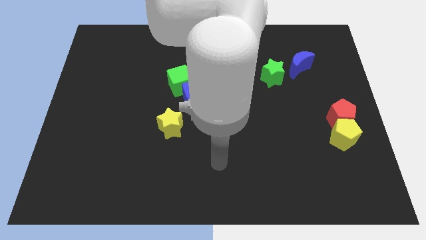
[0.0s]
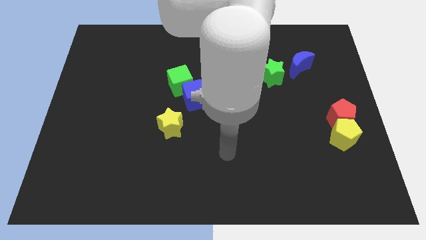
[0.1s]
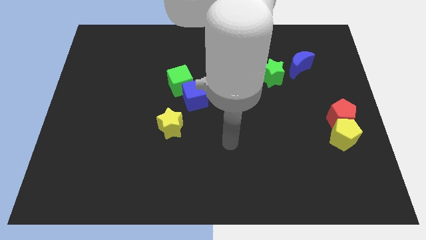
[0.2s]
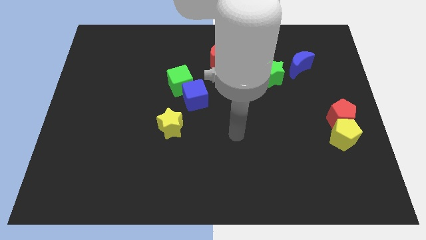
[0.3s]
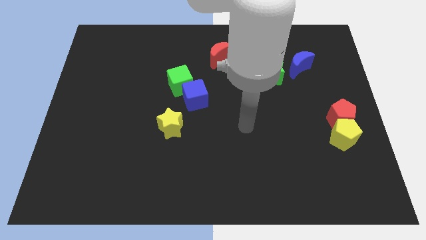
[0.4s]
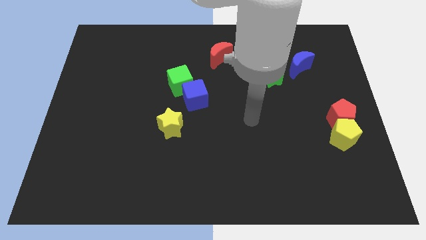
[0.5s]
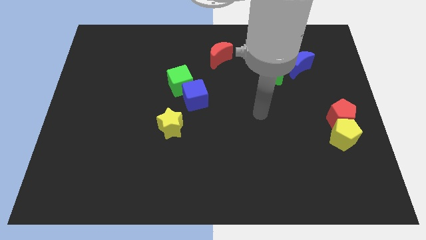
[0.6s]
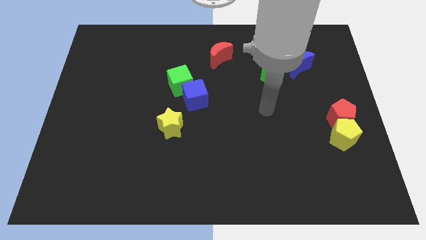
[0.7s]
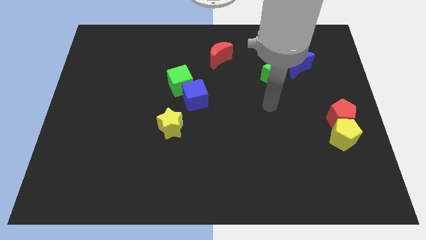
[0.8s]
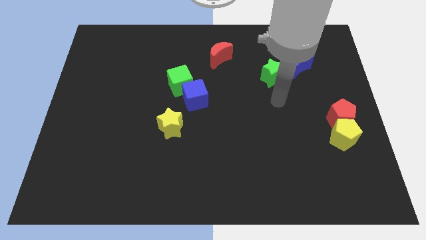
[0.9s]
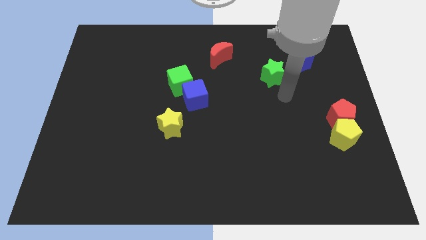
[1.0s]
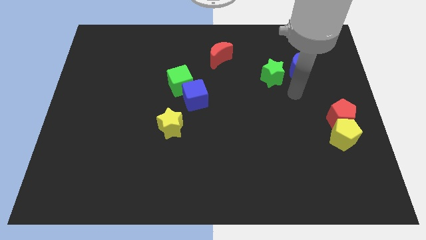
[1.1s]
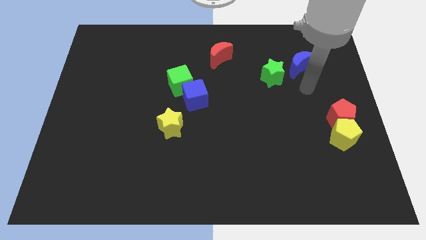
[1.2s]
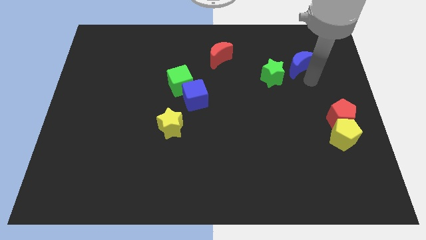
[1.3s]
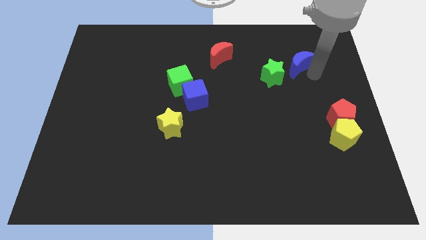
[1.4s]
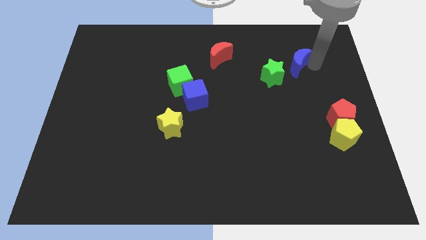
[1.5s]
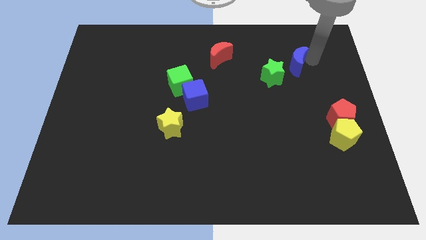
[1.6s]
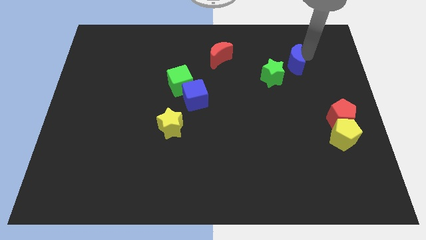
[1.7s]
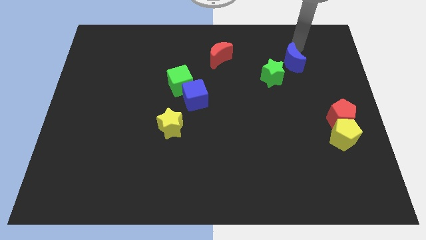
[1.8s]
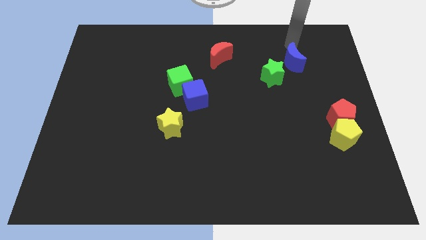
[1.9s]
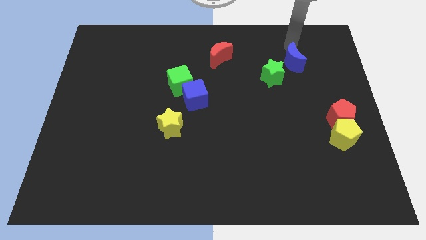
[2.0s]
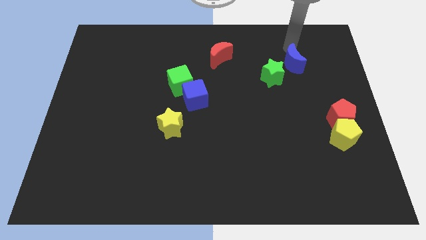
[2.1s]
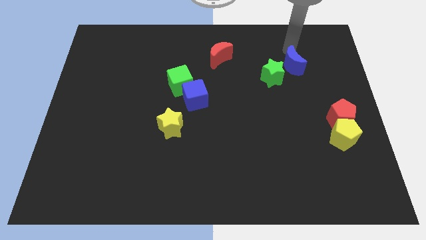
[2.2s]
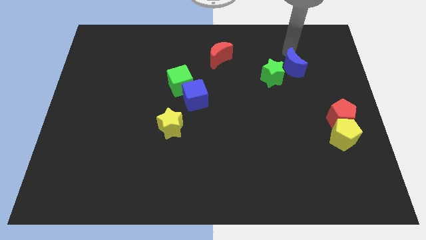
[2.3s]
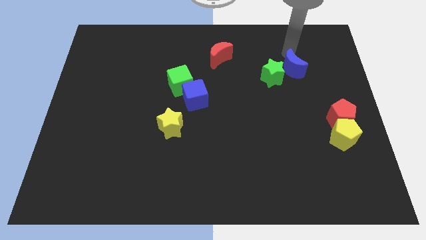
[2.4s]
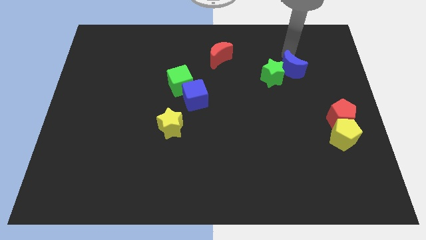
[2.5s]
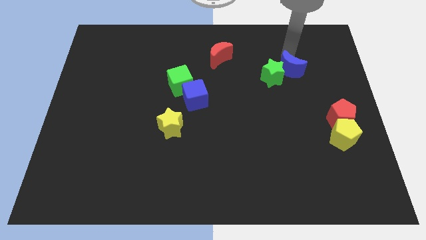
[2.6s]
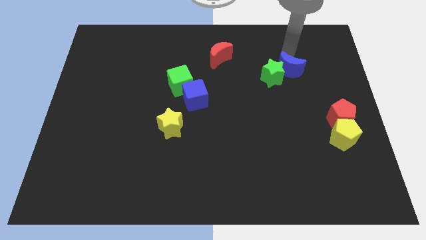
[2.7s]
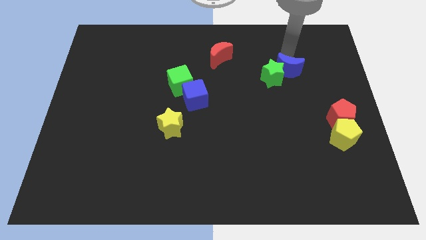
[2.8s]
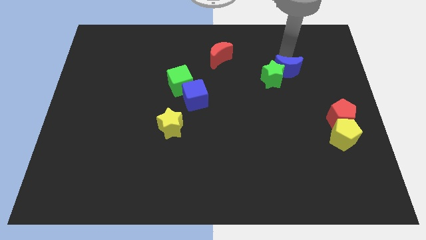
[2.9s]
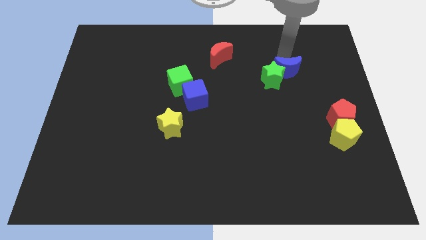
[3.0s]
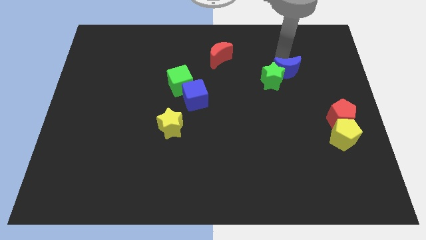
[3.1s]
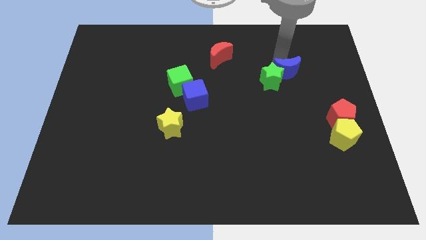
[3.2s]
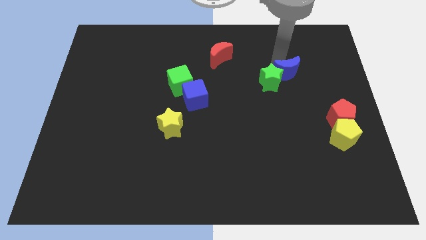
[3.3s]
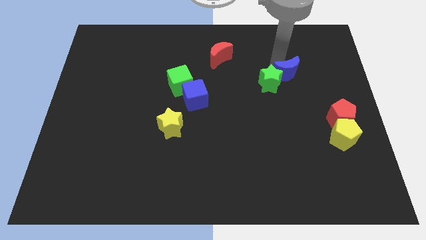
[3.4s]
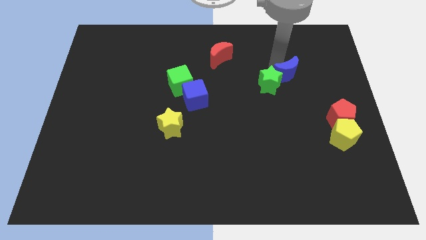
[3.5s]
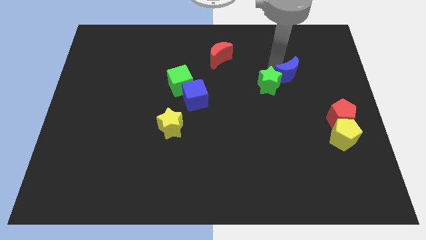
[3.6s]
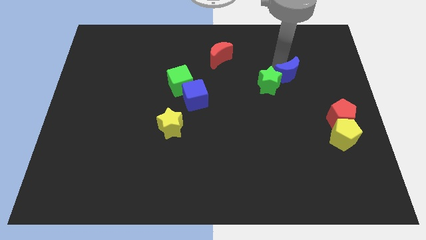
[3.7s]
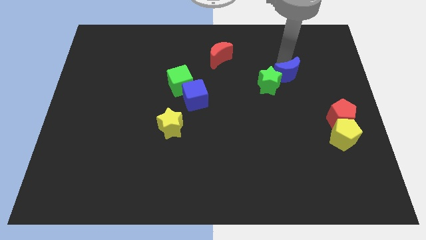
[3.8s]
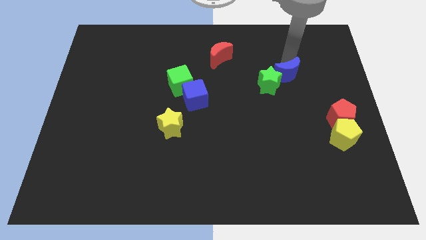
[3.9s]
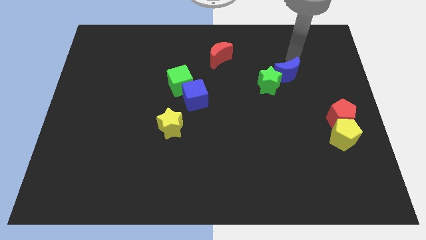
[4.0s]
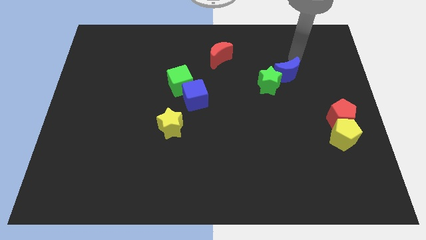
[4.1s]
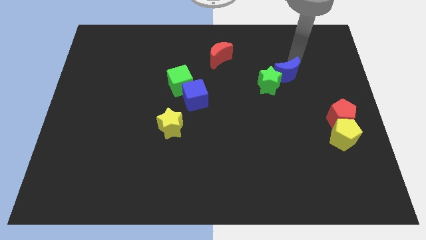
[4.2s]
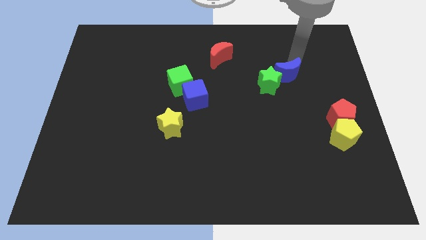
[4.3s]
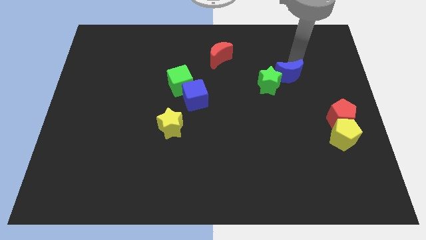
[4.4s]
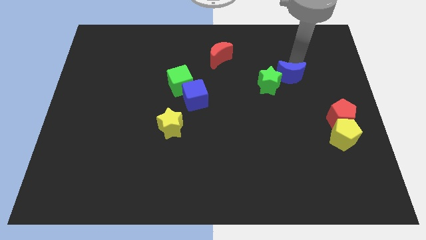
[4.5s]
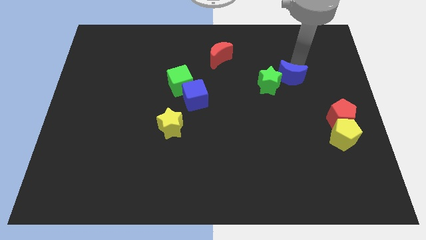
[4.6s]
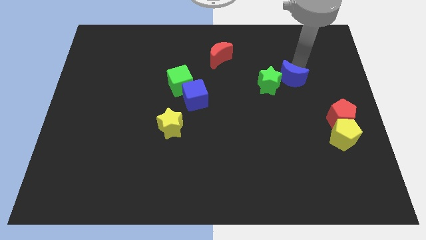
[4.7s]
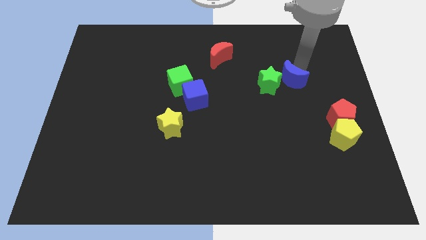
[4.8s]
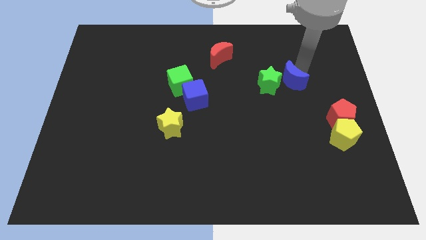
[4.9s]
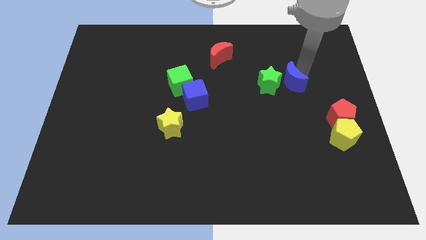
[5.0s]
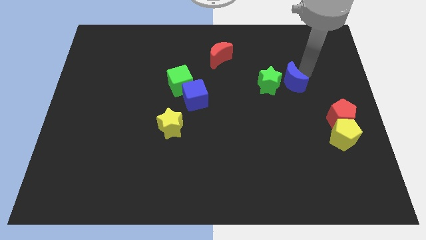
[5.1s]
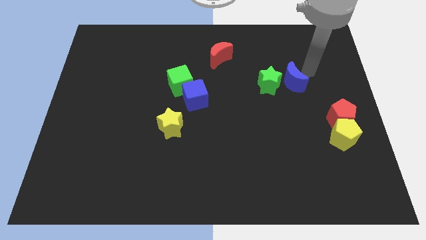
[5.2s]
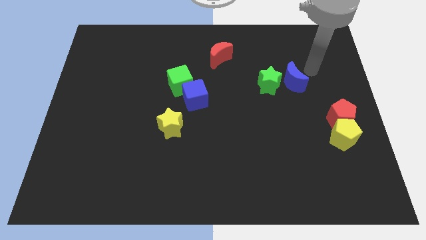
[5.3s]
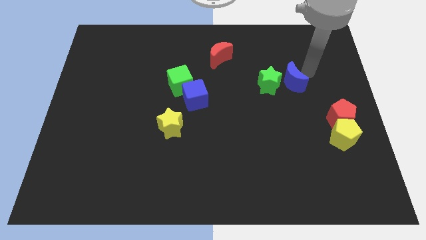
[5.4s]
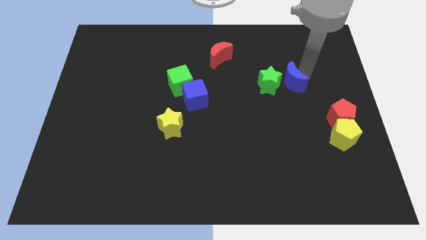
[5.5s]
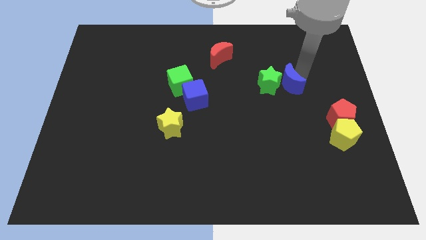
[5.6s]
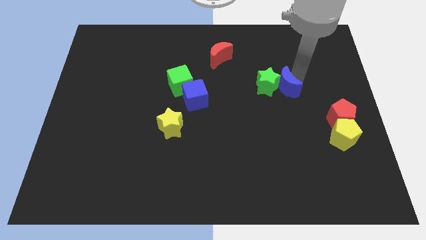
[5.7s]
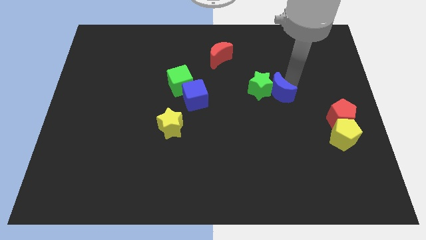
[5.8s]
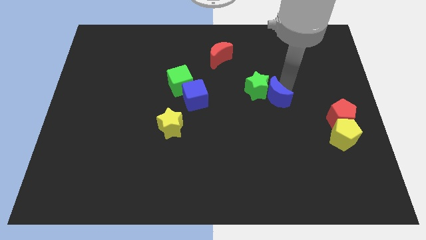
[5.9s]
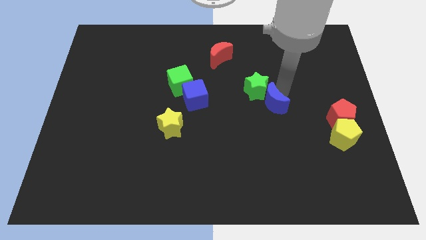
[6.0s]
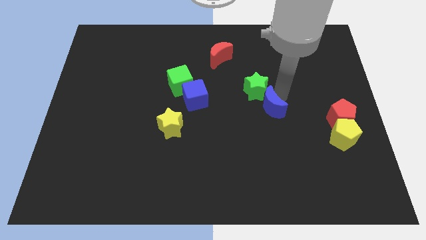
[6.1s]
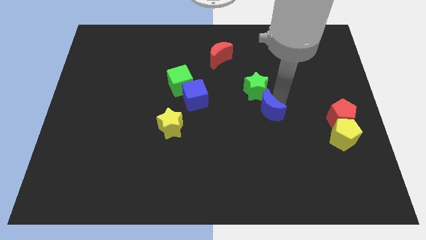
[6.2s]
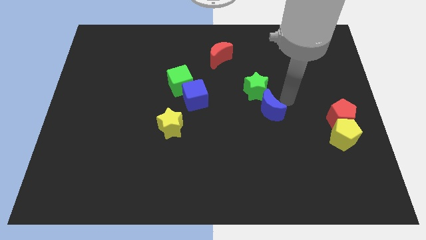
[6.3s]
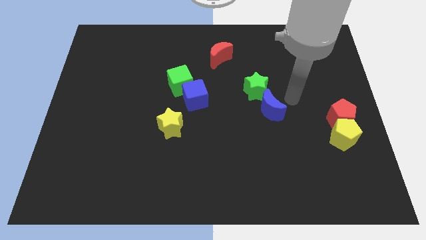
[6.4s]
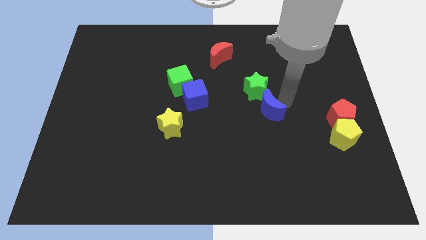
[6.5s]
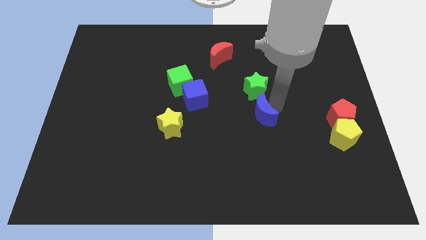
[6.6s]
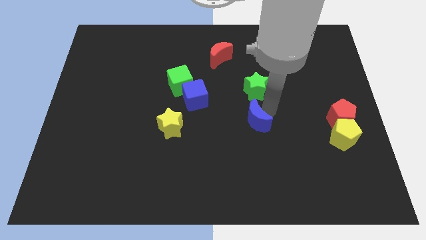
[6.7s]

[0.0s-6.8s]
move the blue moon down and then left

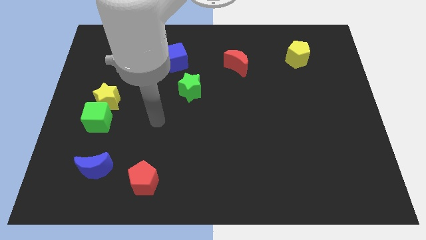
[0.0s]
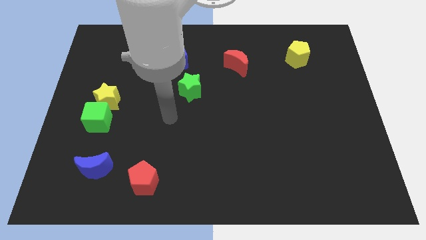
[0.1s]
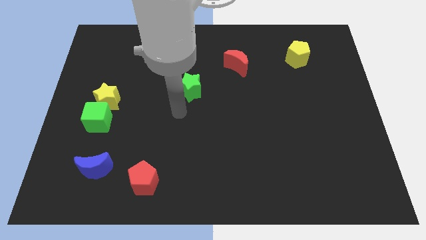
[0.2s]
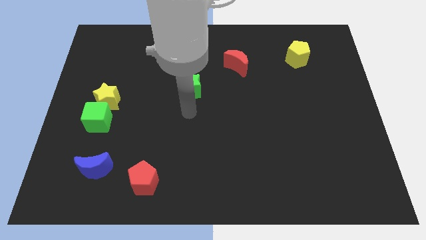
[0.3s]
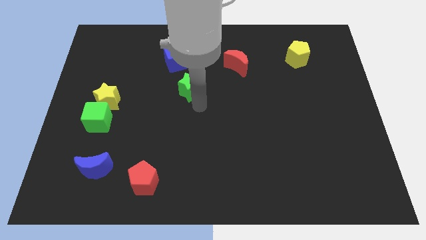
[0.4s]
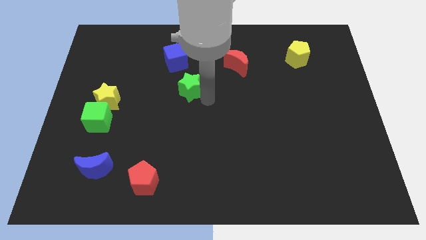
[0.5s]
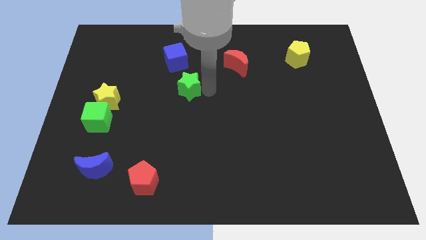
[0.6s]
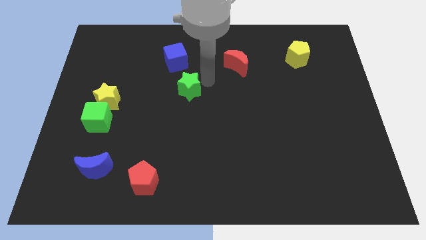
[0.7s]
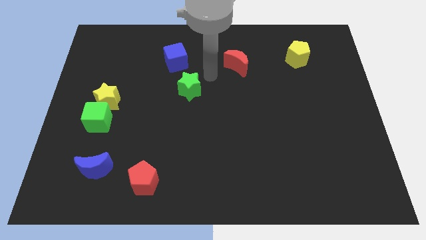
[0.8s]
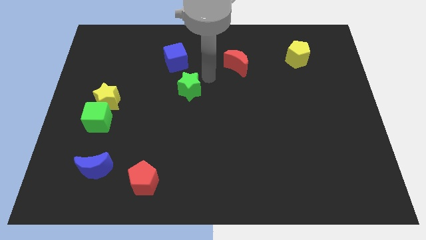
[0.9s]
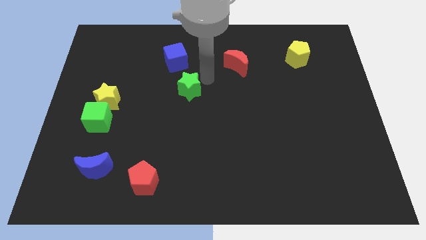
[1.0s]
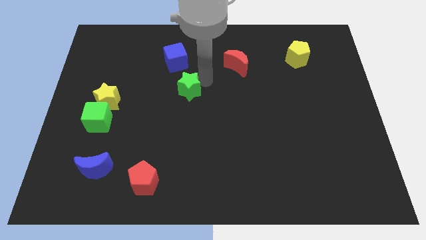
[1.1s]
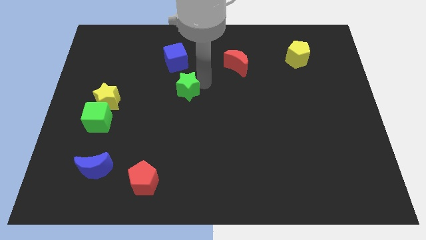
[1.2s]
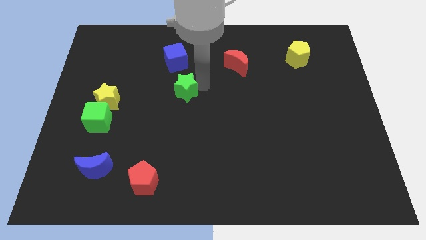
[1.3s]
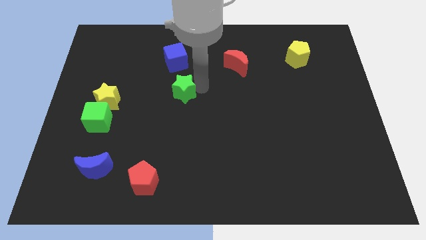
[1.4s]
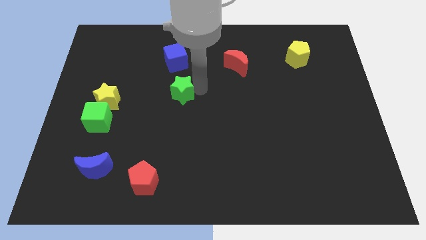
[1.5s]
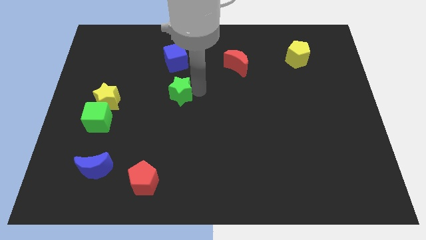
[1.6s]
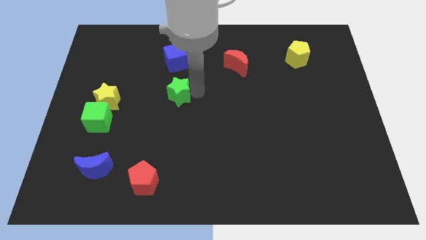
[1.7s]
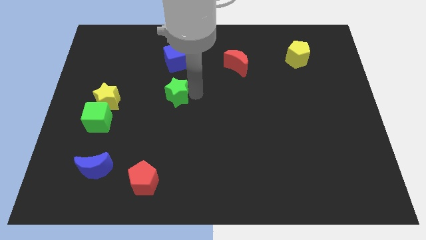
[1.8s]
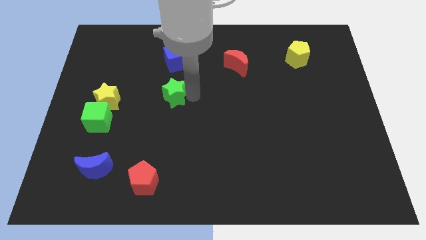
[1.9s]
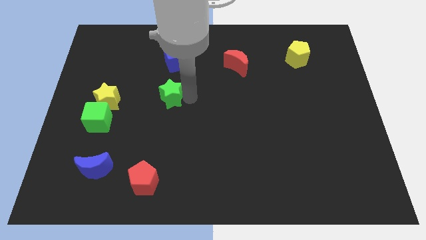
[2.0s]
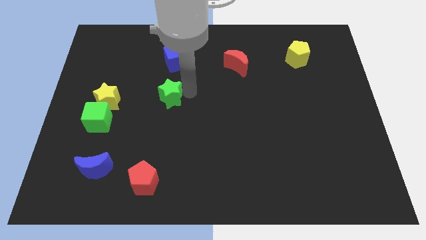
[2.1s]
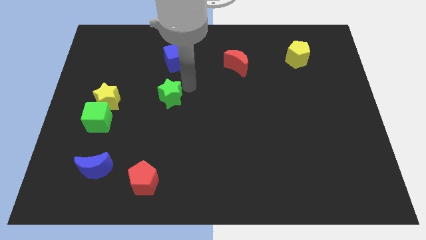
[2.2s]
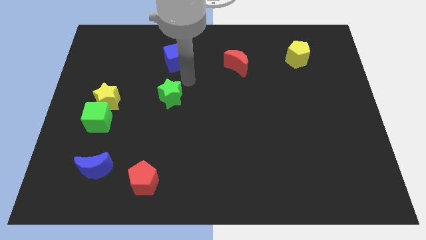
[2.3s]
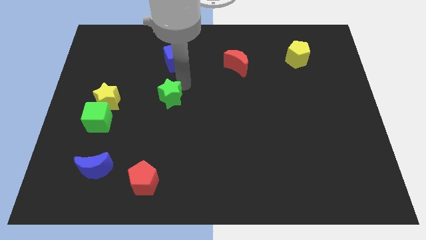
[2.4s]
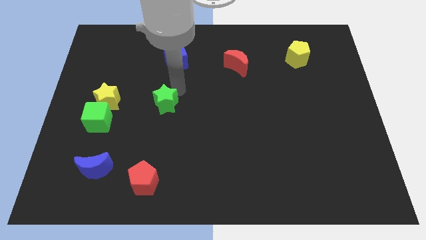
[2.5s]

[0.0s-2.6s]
move the green star down and then left a little
